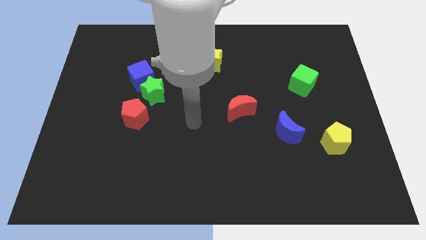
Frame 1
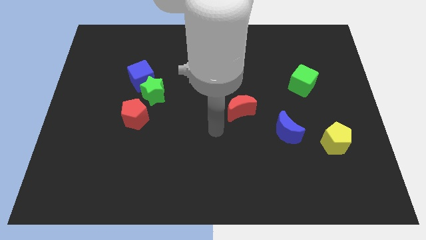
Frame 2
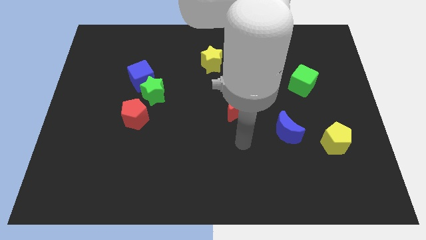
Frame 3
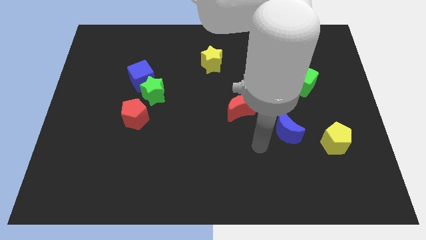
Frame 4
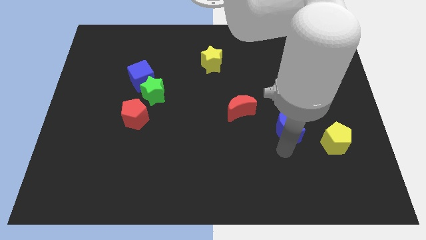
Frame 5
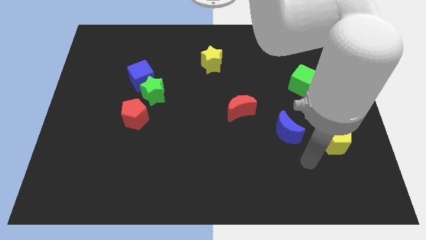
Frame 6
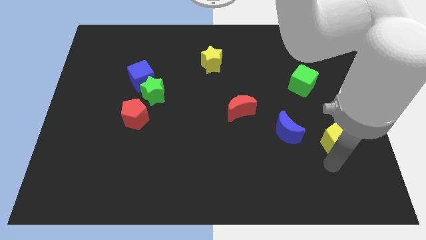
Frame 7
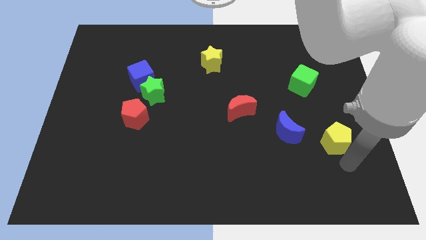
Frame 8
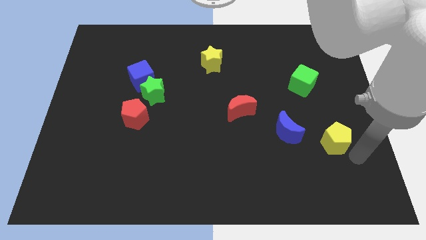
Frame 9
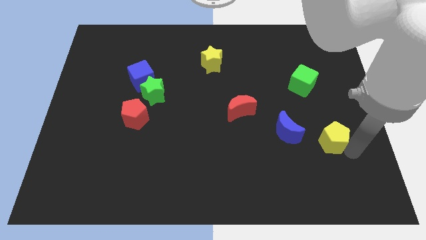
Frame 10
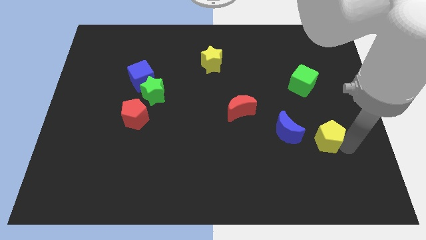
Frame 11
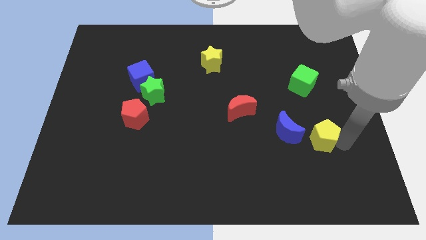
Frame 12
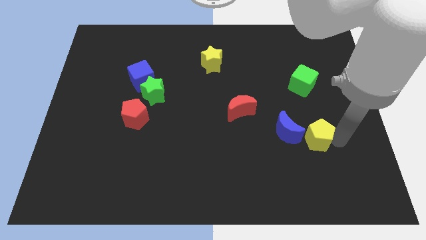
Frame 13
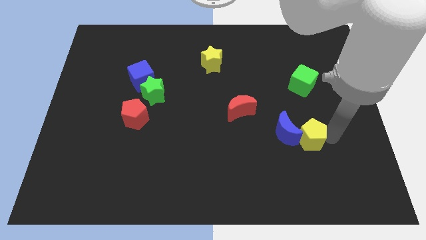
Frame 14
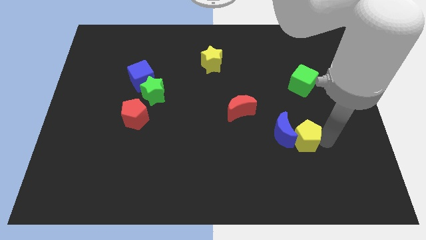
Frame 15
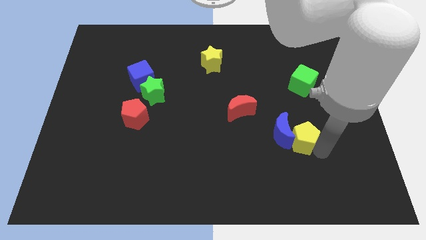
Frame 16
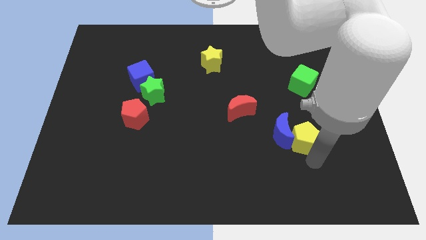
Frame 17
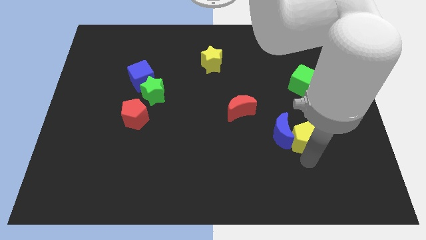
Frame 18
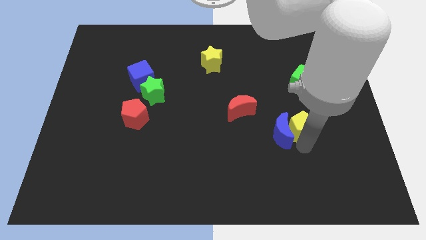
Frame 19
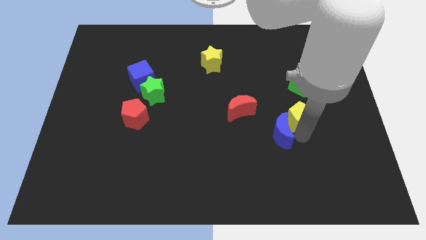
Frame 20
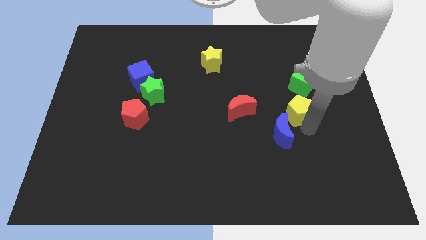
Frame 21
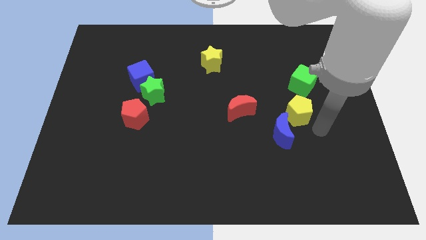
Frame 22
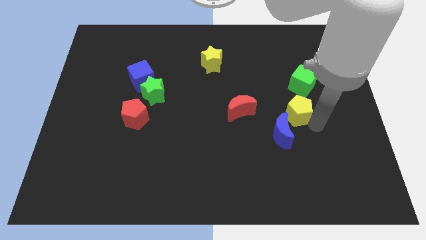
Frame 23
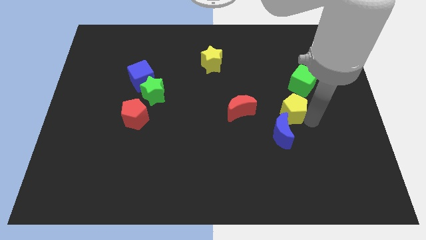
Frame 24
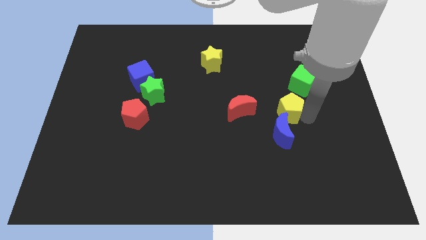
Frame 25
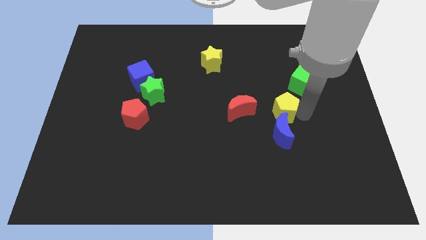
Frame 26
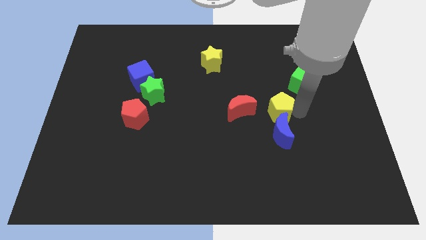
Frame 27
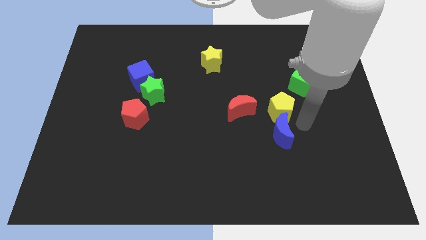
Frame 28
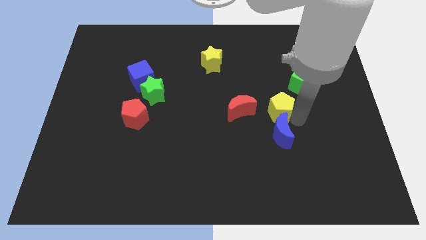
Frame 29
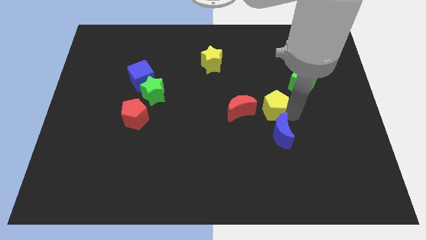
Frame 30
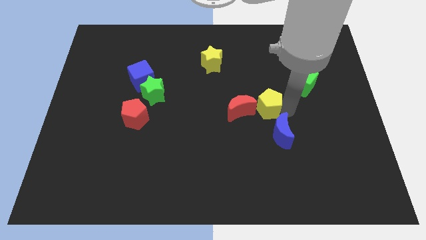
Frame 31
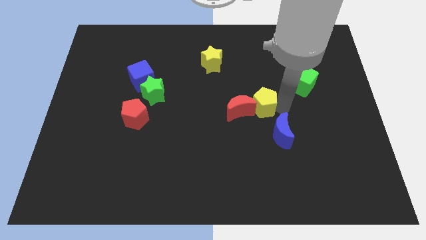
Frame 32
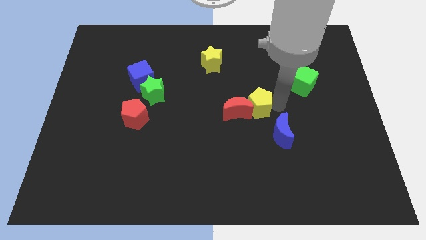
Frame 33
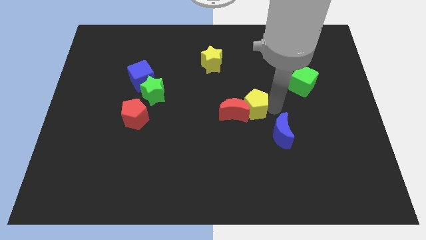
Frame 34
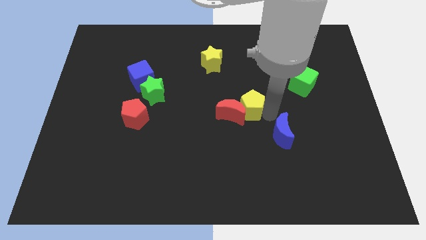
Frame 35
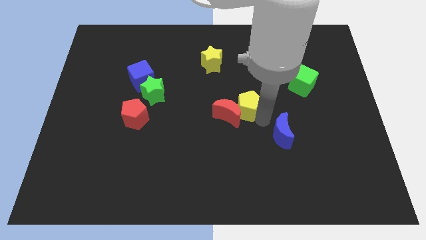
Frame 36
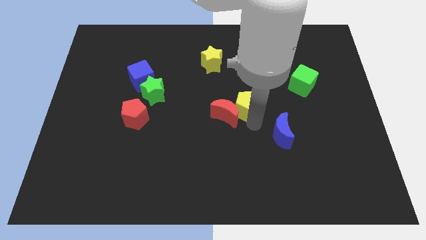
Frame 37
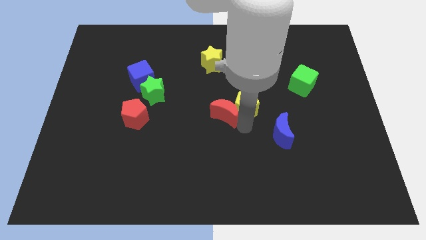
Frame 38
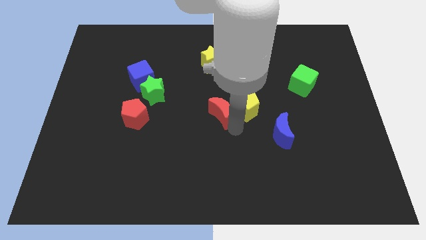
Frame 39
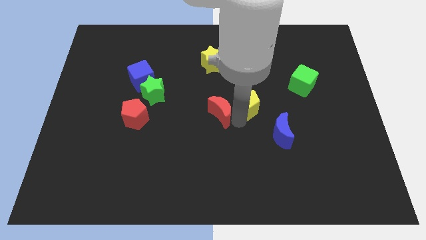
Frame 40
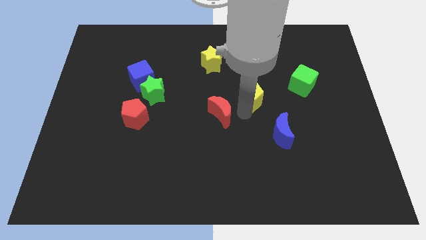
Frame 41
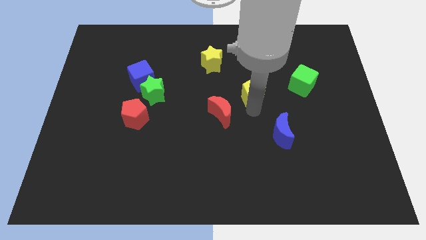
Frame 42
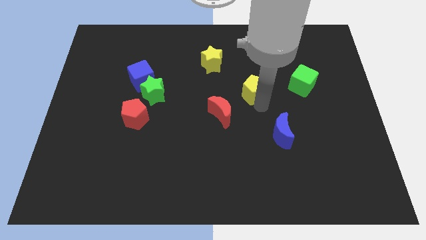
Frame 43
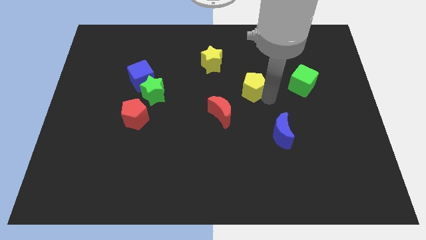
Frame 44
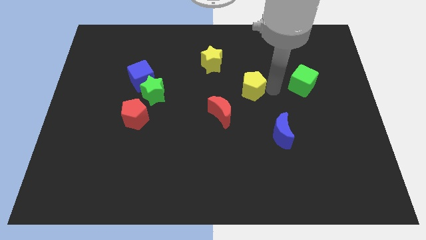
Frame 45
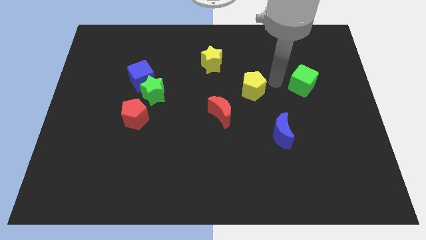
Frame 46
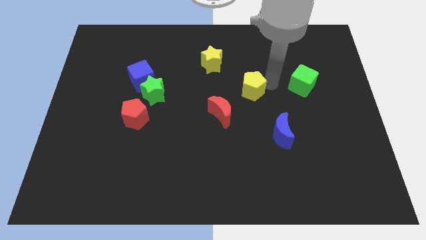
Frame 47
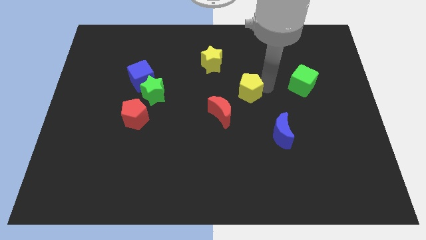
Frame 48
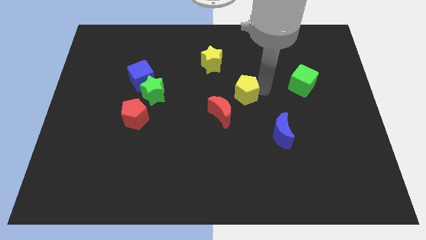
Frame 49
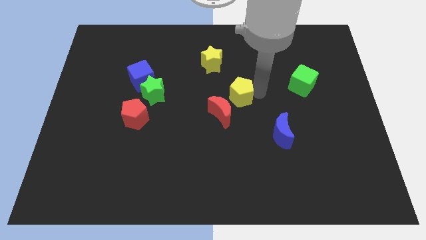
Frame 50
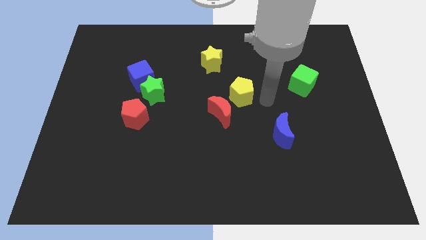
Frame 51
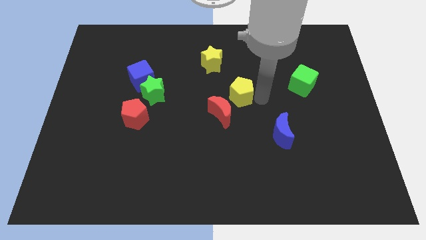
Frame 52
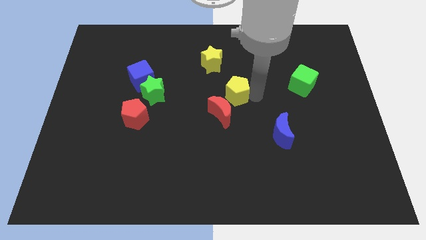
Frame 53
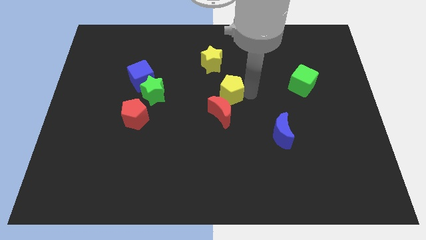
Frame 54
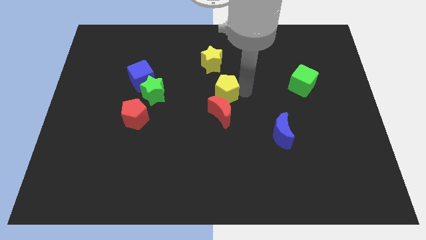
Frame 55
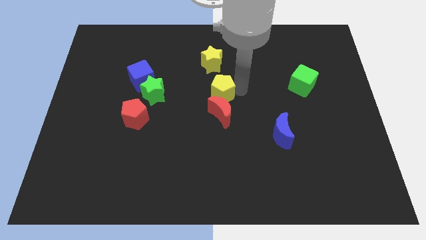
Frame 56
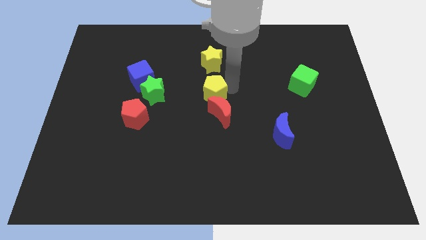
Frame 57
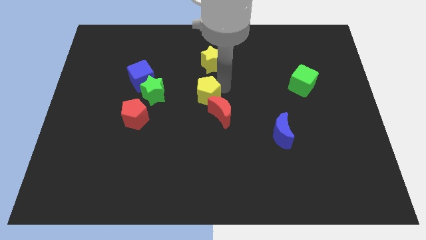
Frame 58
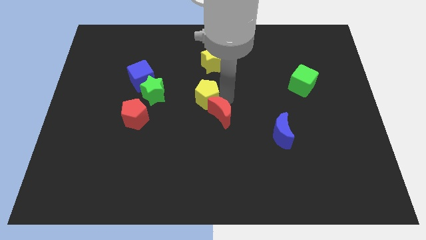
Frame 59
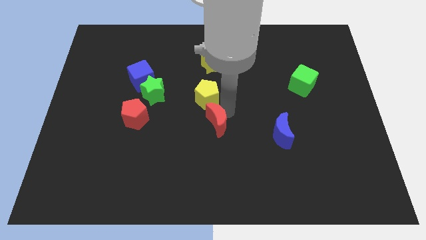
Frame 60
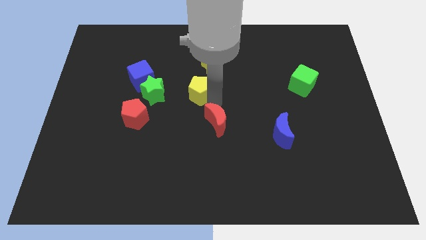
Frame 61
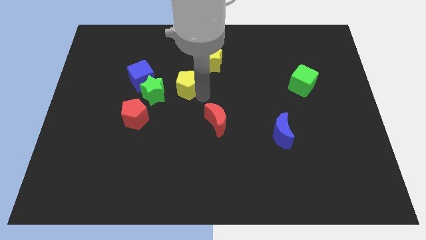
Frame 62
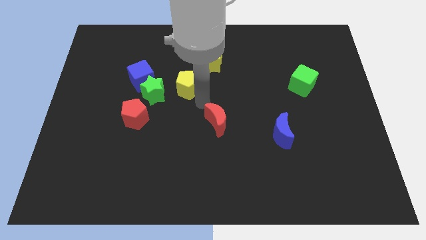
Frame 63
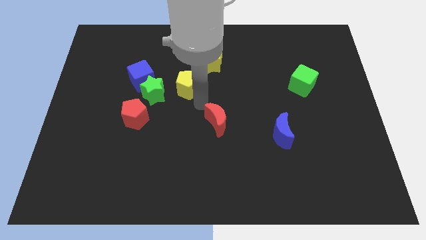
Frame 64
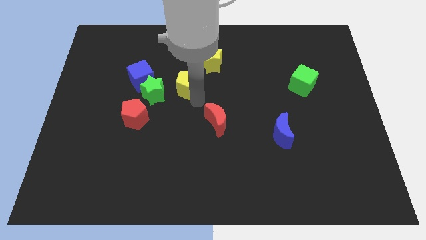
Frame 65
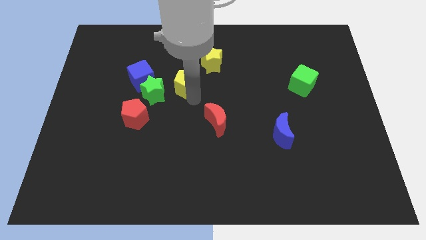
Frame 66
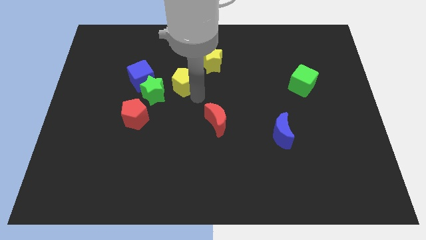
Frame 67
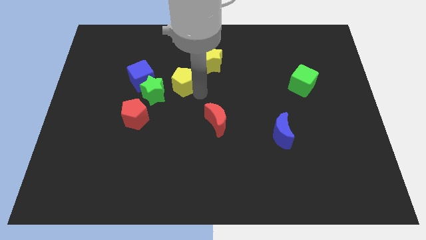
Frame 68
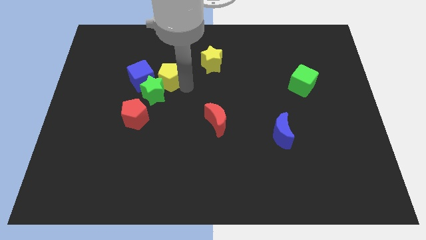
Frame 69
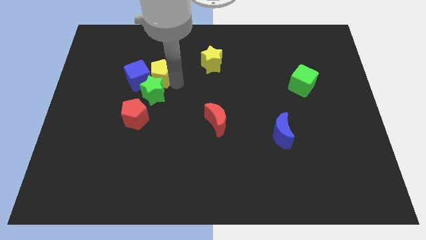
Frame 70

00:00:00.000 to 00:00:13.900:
push the yellow pentagon diagonally up and to the left of the green star
